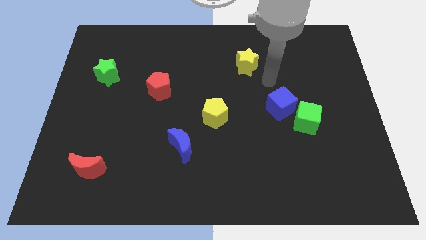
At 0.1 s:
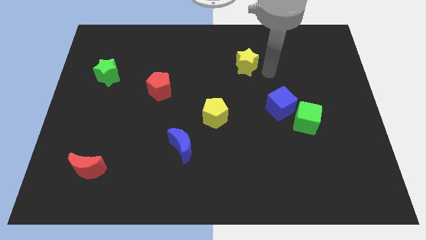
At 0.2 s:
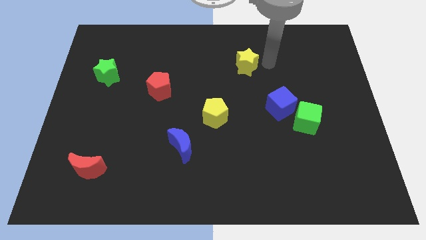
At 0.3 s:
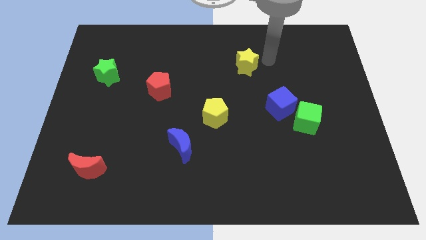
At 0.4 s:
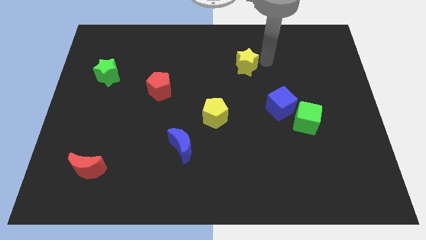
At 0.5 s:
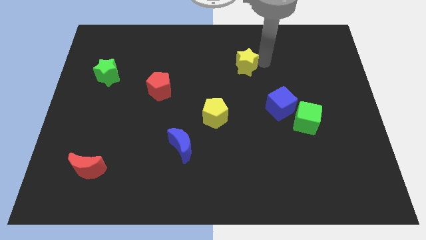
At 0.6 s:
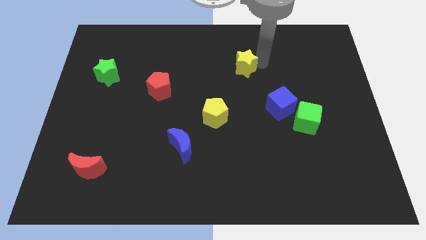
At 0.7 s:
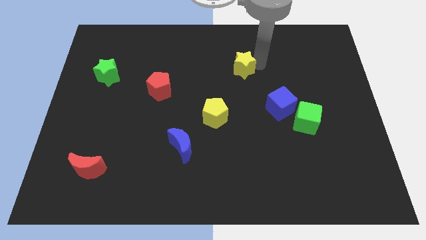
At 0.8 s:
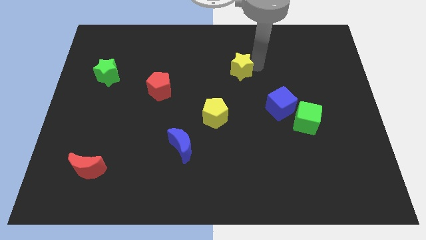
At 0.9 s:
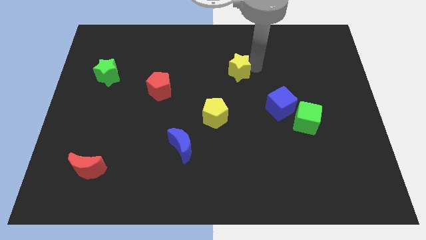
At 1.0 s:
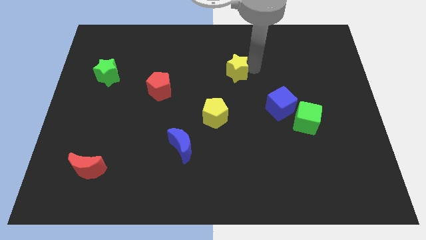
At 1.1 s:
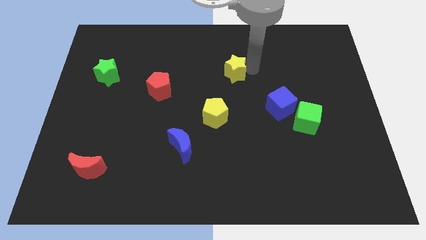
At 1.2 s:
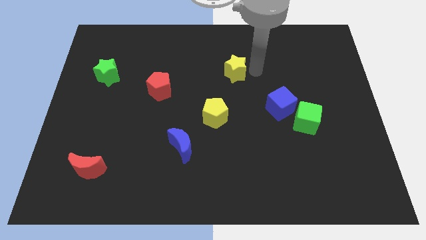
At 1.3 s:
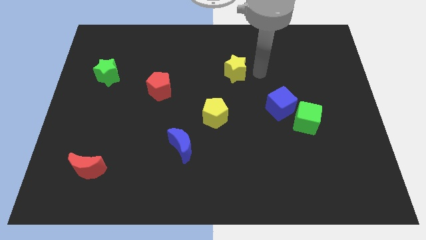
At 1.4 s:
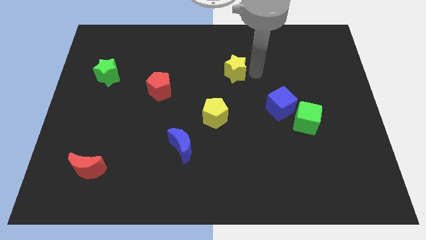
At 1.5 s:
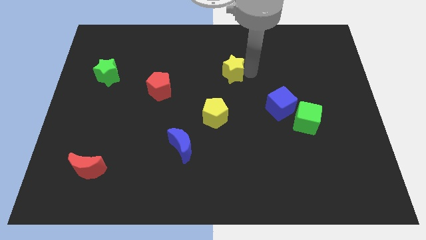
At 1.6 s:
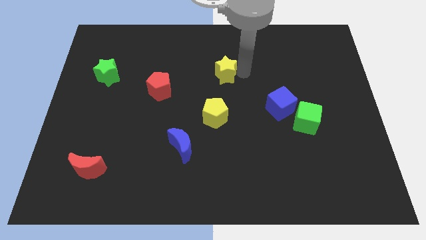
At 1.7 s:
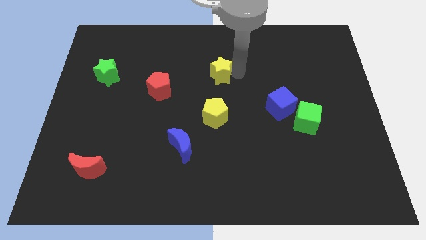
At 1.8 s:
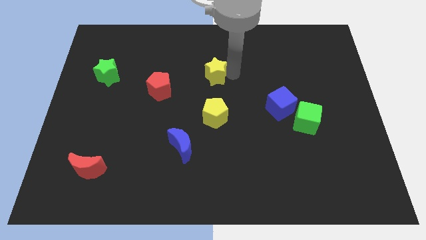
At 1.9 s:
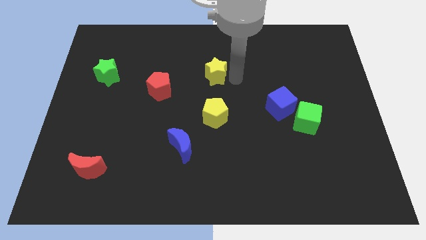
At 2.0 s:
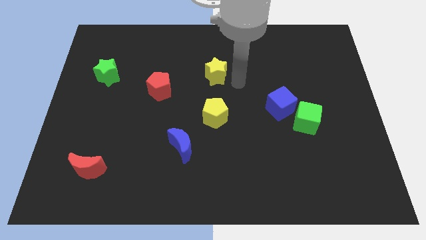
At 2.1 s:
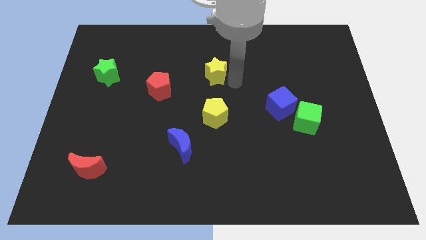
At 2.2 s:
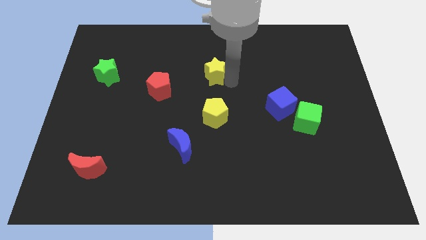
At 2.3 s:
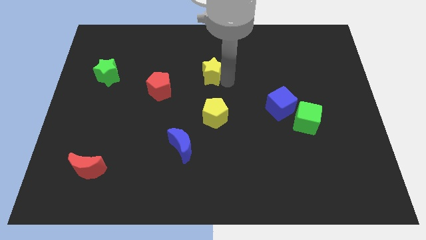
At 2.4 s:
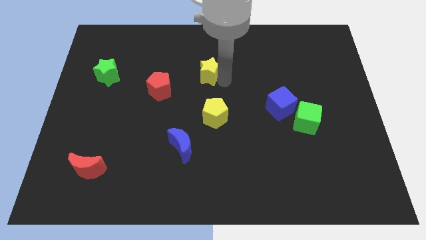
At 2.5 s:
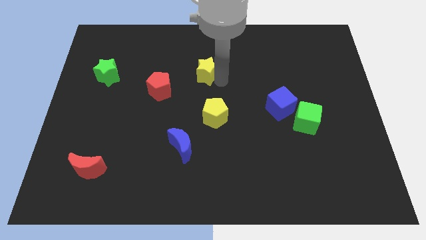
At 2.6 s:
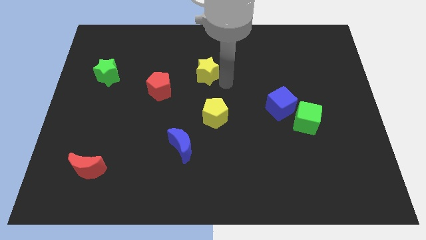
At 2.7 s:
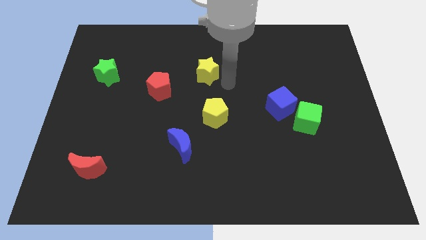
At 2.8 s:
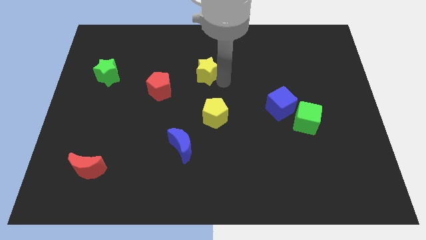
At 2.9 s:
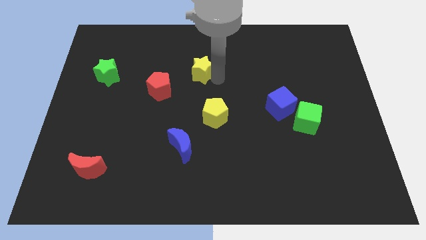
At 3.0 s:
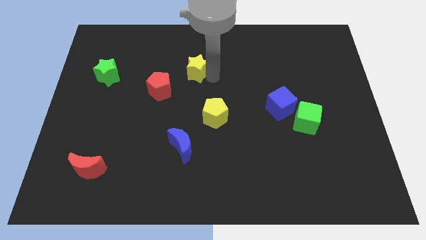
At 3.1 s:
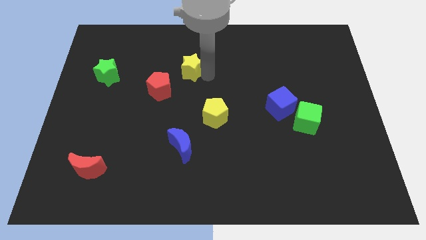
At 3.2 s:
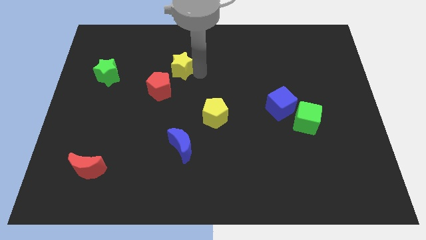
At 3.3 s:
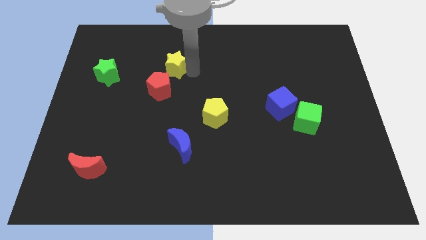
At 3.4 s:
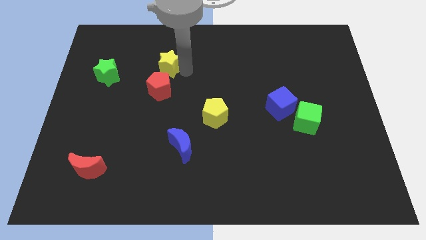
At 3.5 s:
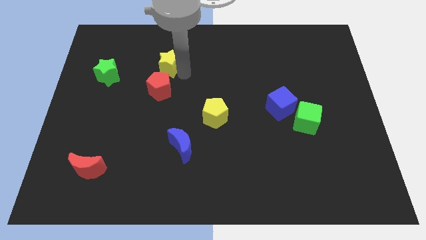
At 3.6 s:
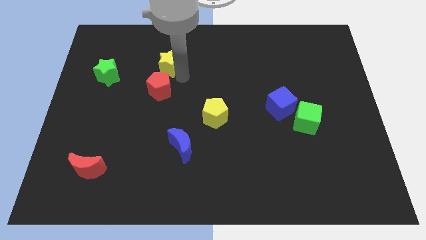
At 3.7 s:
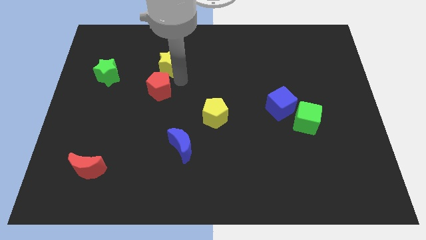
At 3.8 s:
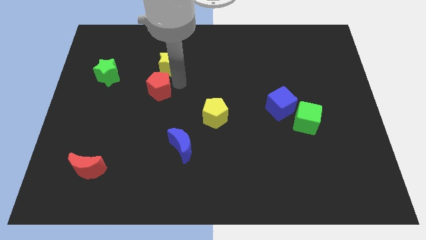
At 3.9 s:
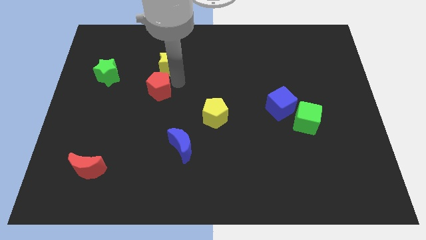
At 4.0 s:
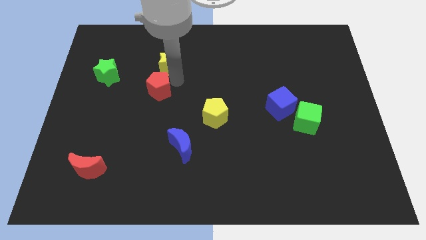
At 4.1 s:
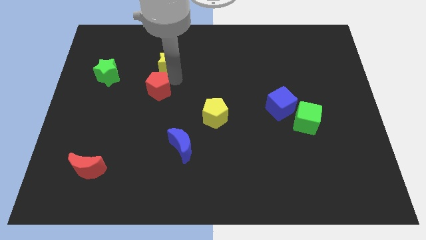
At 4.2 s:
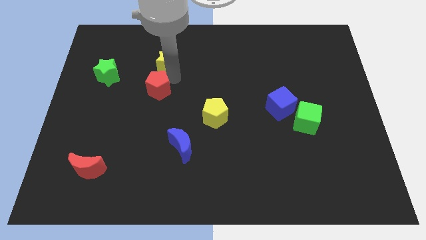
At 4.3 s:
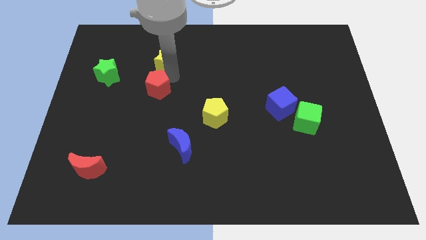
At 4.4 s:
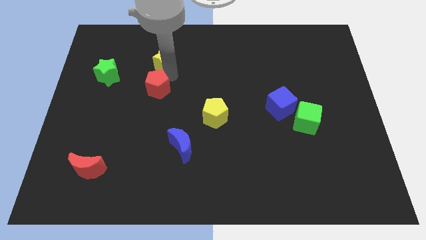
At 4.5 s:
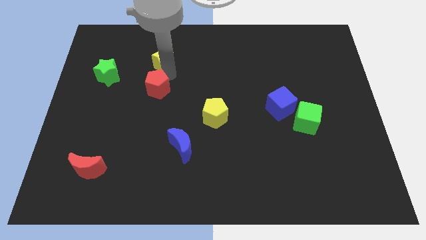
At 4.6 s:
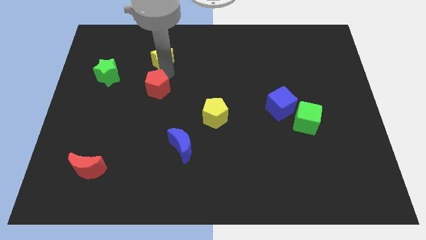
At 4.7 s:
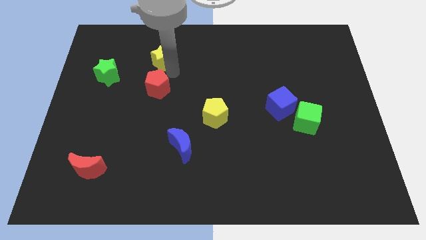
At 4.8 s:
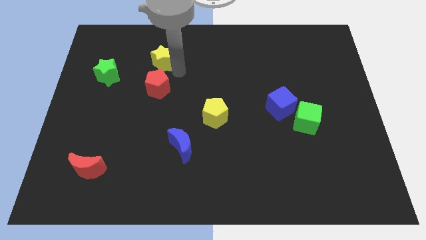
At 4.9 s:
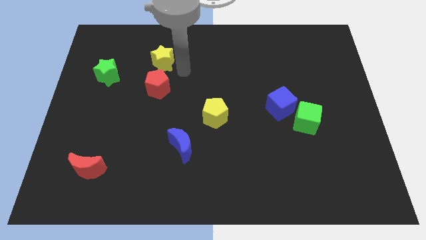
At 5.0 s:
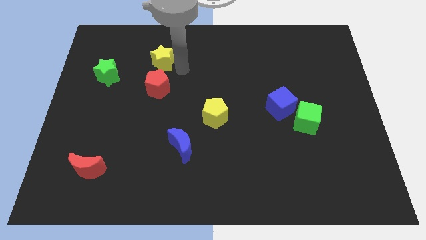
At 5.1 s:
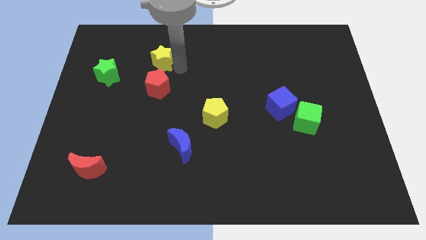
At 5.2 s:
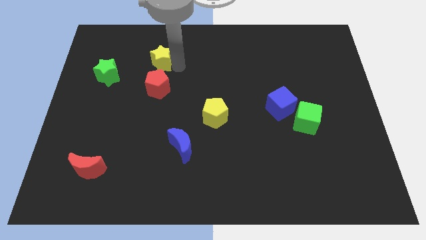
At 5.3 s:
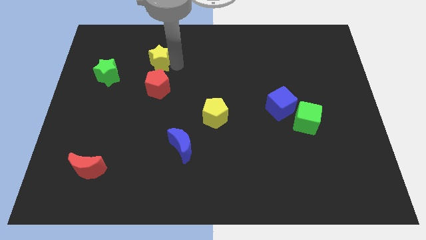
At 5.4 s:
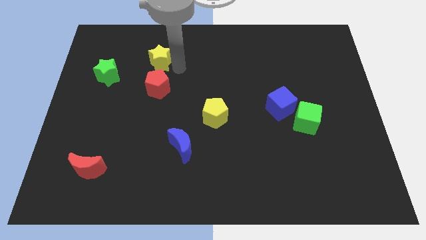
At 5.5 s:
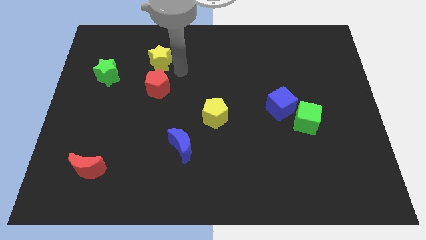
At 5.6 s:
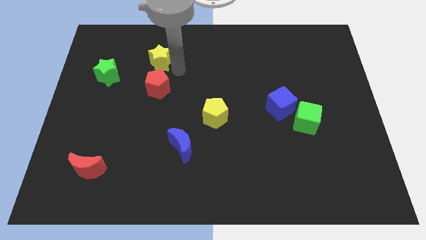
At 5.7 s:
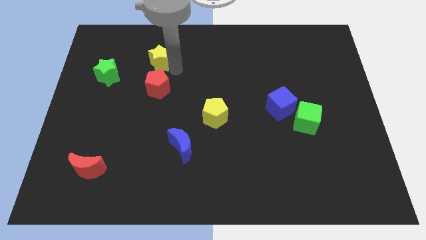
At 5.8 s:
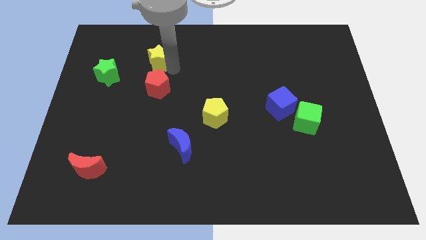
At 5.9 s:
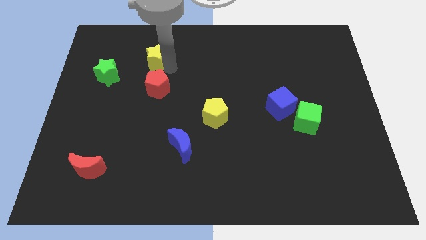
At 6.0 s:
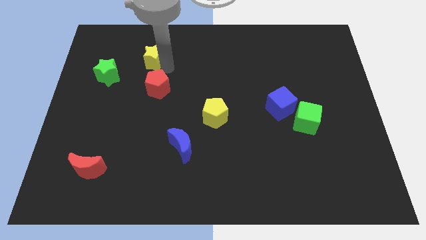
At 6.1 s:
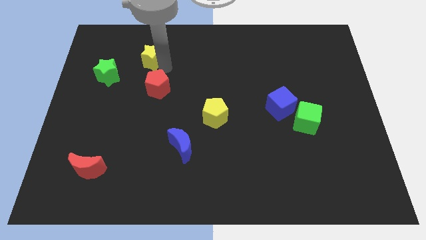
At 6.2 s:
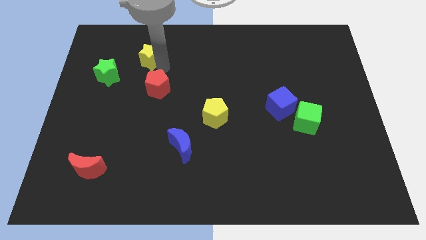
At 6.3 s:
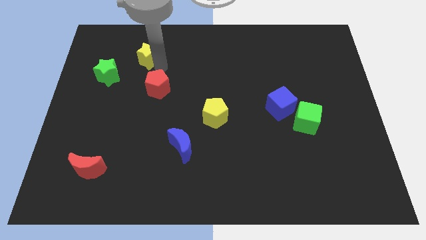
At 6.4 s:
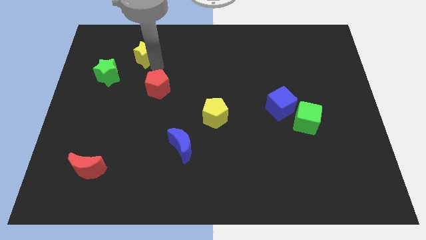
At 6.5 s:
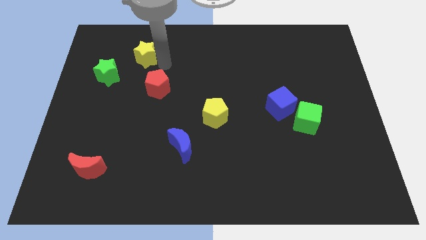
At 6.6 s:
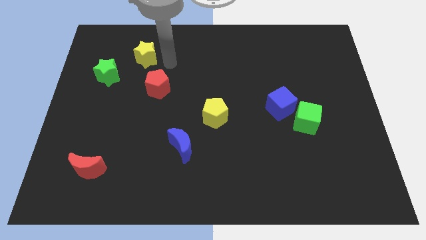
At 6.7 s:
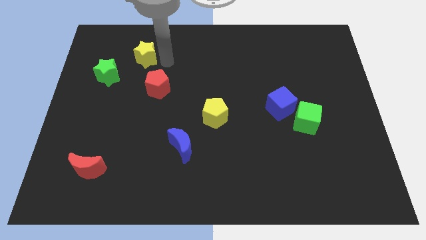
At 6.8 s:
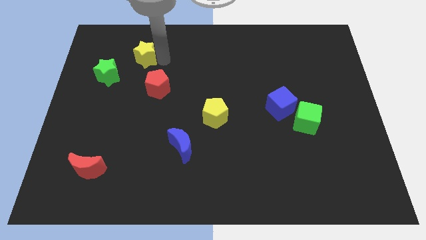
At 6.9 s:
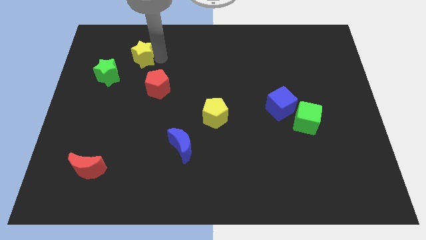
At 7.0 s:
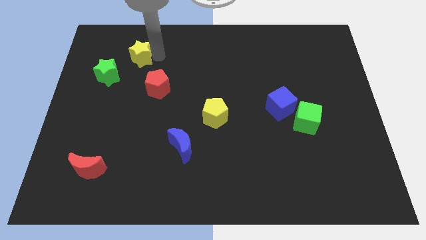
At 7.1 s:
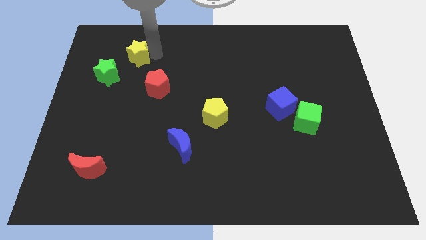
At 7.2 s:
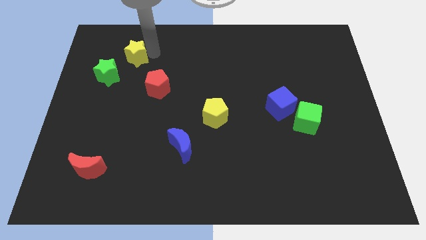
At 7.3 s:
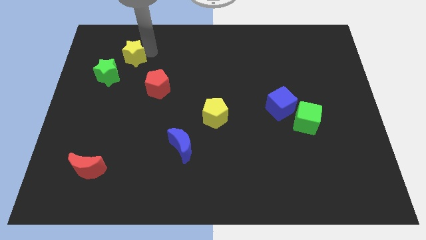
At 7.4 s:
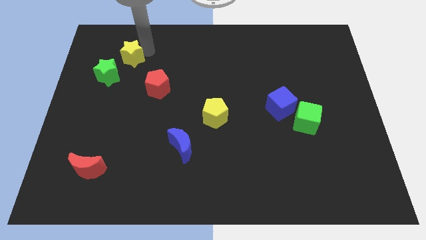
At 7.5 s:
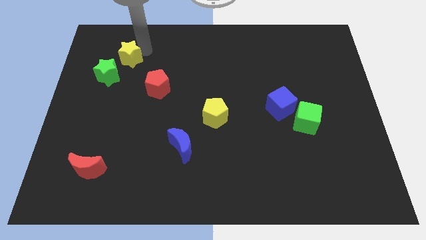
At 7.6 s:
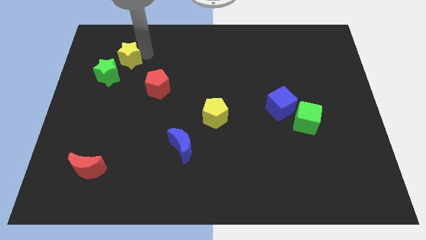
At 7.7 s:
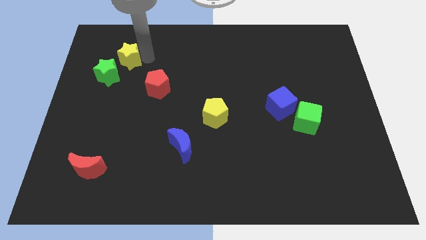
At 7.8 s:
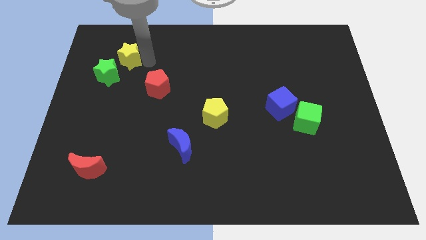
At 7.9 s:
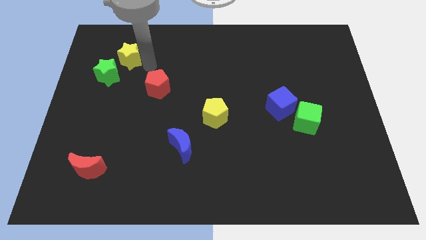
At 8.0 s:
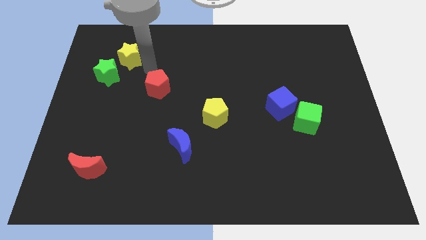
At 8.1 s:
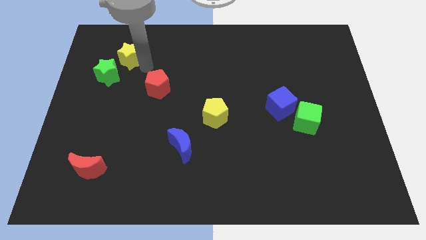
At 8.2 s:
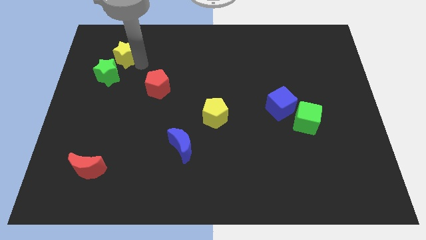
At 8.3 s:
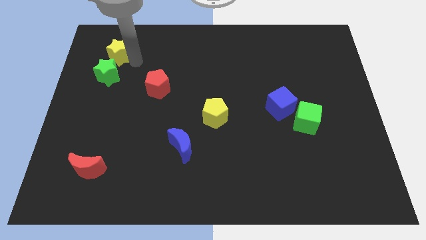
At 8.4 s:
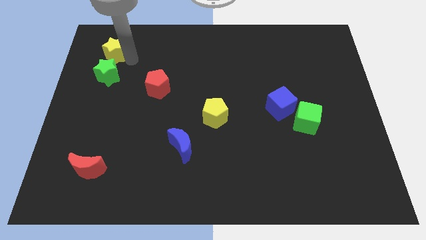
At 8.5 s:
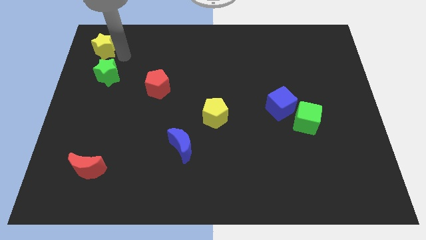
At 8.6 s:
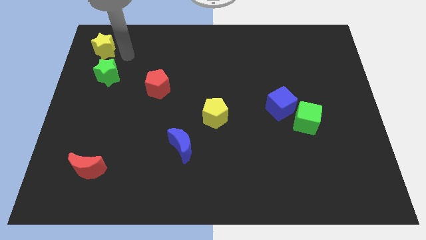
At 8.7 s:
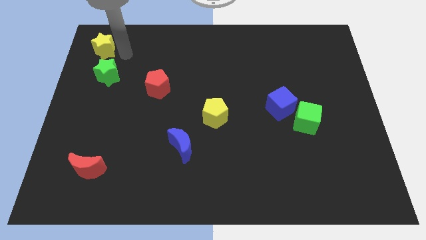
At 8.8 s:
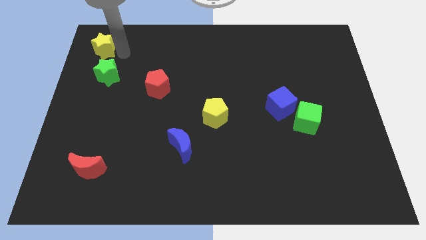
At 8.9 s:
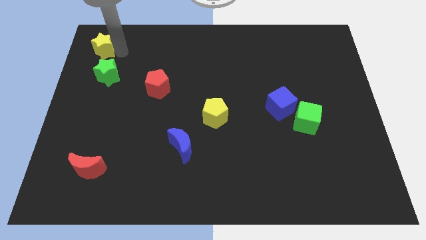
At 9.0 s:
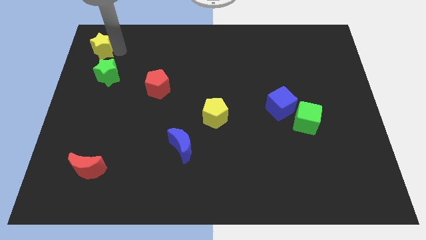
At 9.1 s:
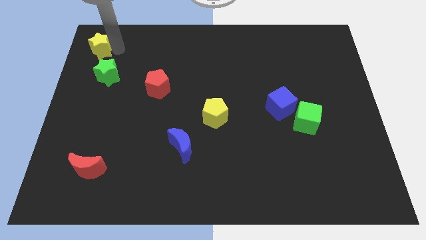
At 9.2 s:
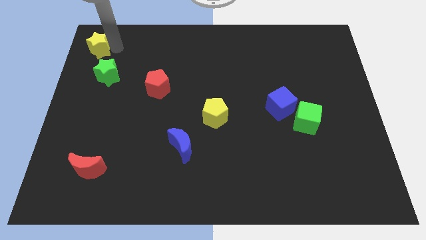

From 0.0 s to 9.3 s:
push the yellow star to the top left
